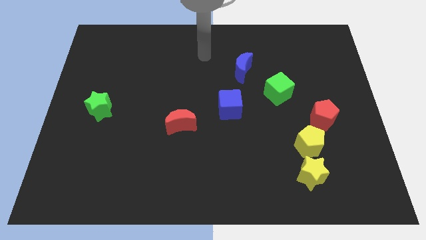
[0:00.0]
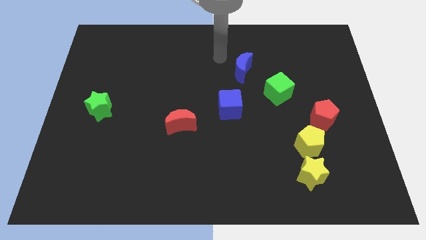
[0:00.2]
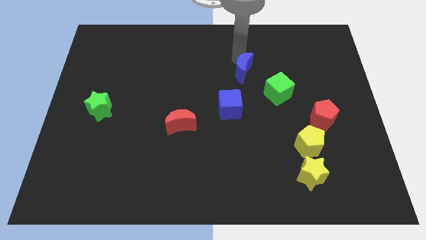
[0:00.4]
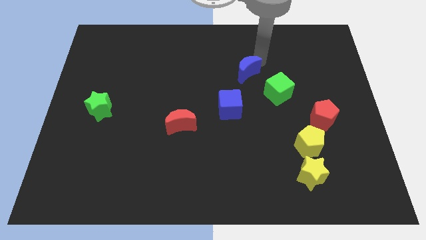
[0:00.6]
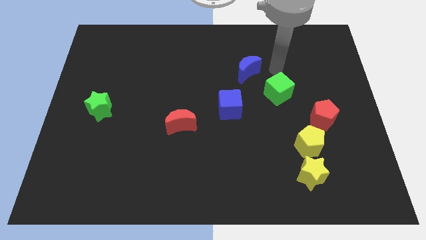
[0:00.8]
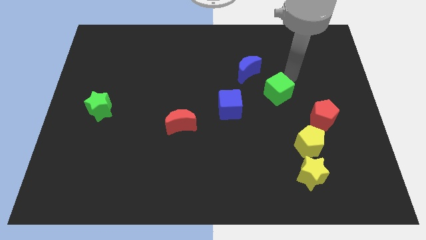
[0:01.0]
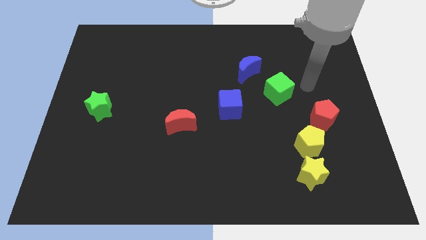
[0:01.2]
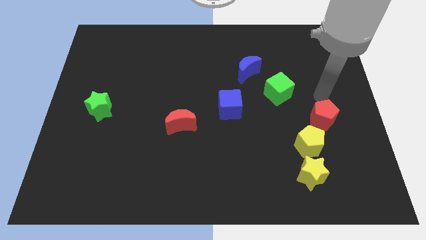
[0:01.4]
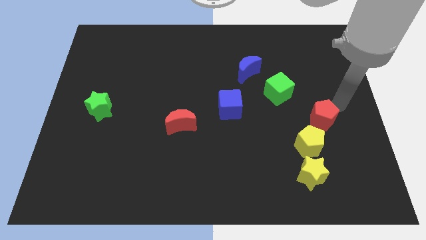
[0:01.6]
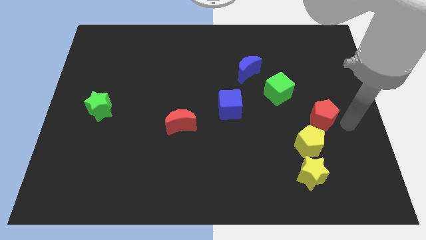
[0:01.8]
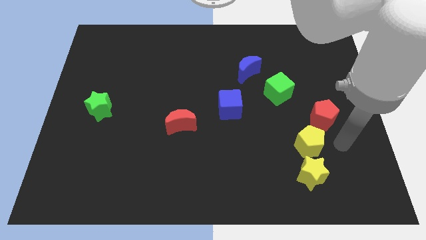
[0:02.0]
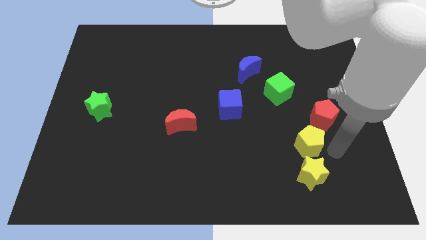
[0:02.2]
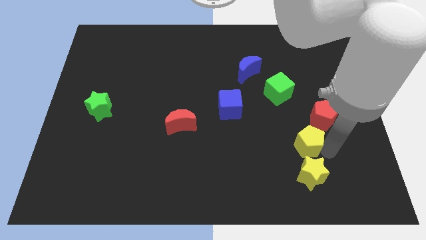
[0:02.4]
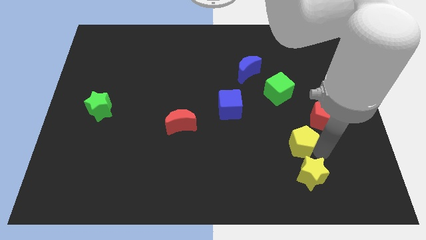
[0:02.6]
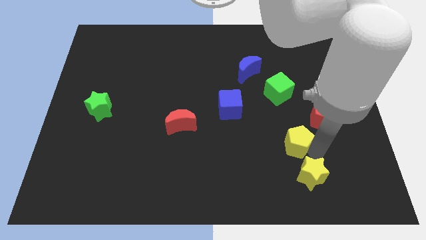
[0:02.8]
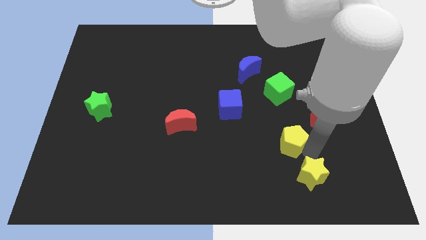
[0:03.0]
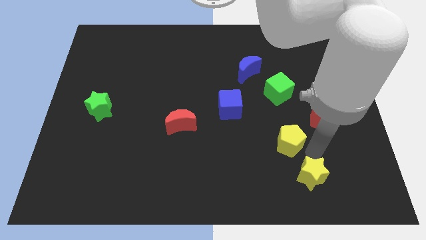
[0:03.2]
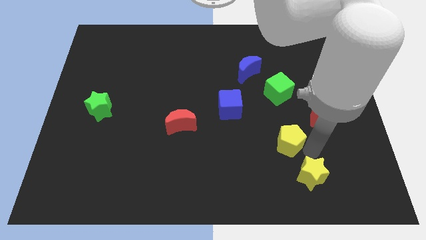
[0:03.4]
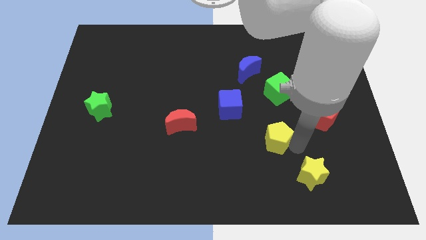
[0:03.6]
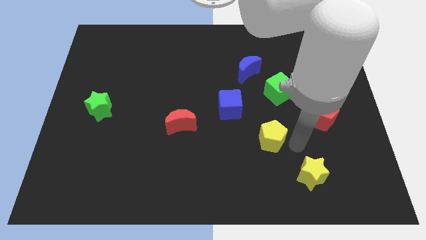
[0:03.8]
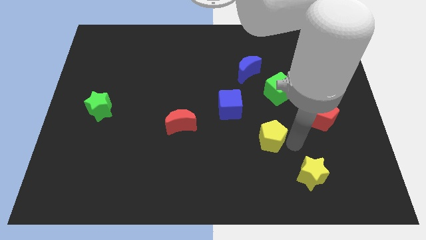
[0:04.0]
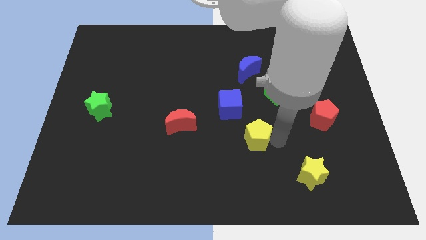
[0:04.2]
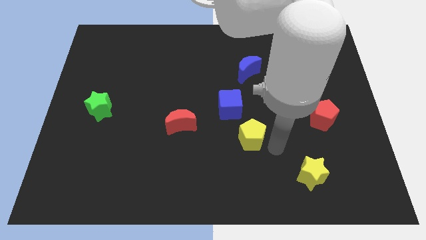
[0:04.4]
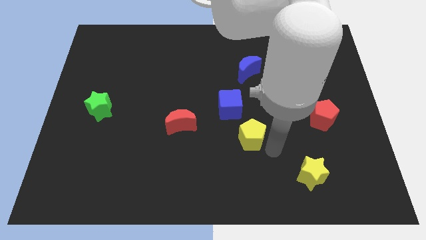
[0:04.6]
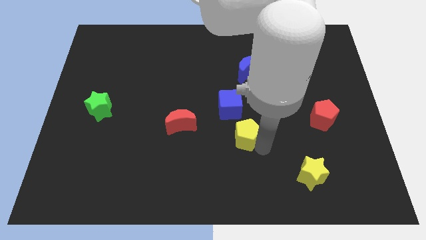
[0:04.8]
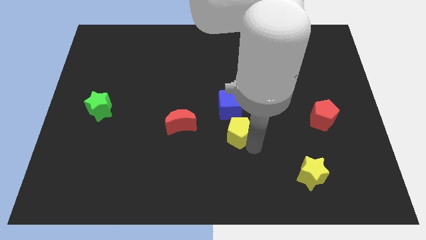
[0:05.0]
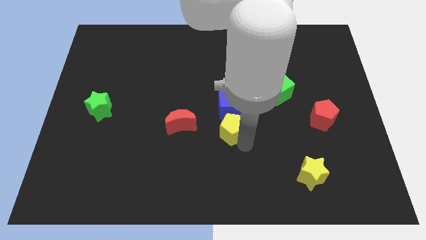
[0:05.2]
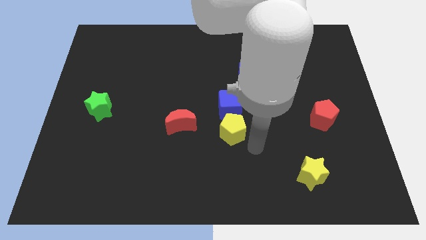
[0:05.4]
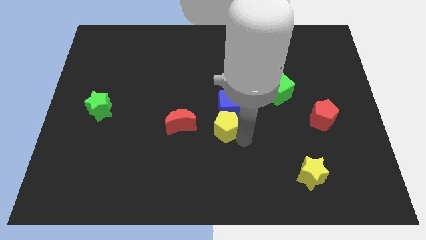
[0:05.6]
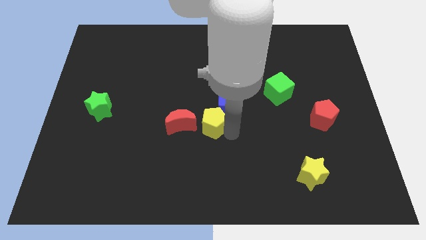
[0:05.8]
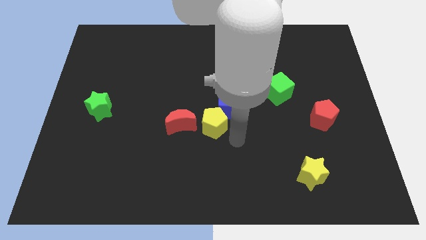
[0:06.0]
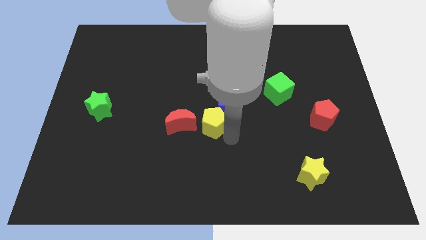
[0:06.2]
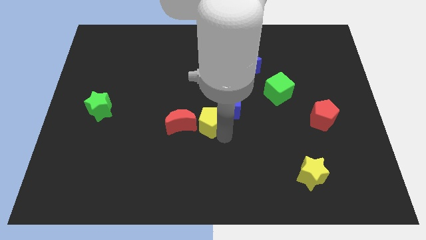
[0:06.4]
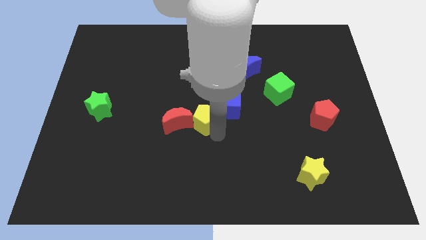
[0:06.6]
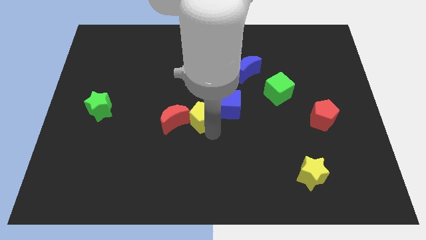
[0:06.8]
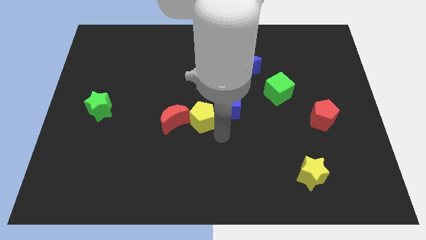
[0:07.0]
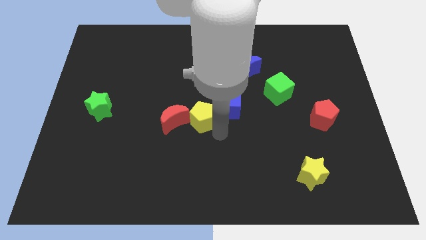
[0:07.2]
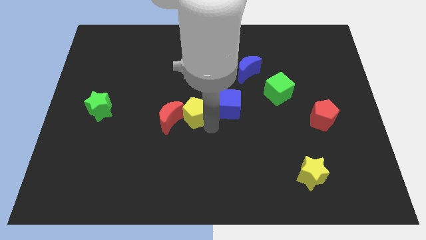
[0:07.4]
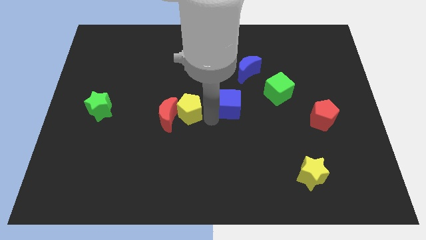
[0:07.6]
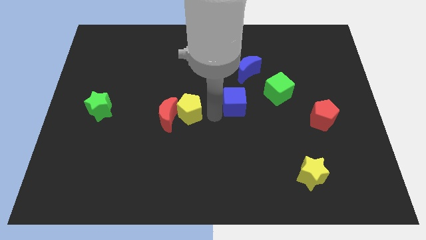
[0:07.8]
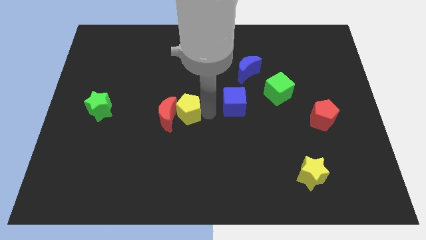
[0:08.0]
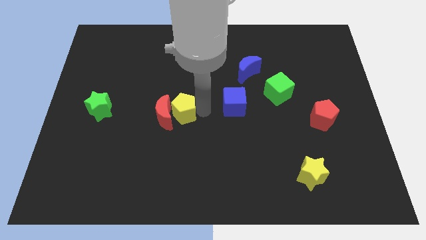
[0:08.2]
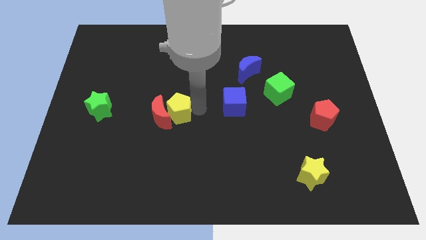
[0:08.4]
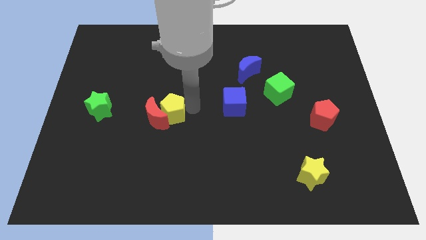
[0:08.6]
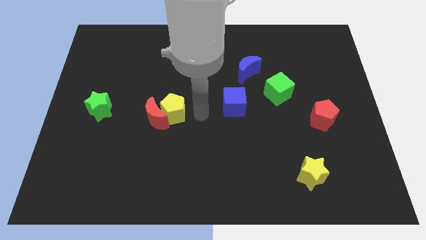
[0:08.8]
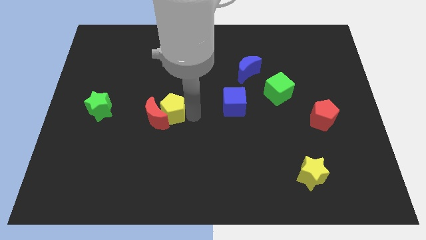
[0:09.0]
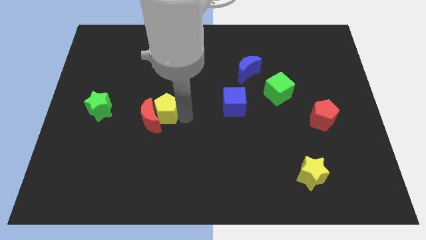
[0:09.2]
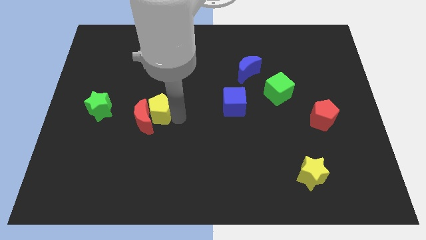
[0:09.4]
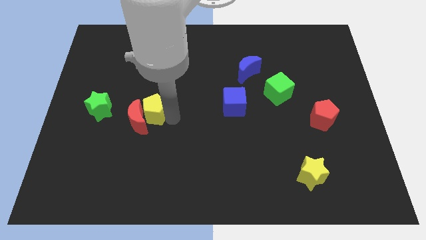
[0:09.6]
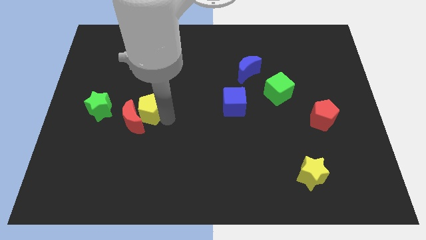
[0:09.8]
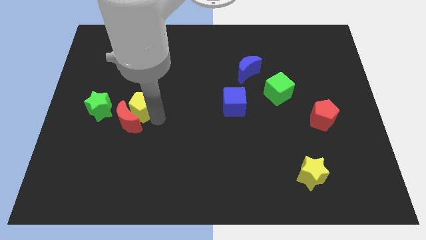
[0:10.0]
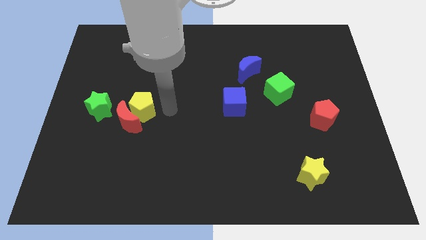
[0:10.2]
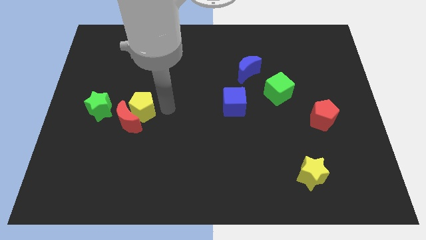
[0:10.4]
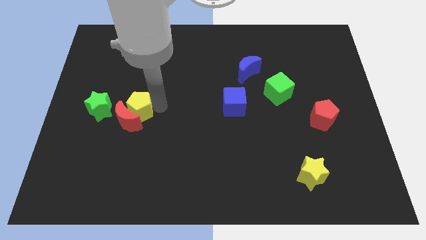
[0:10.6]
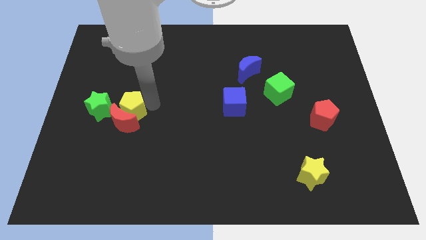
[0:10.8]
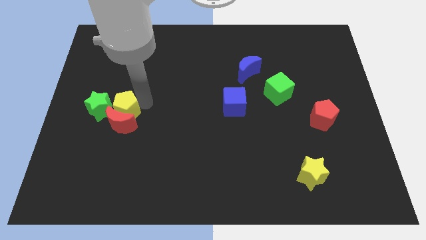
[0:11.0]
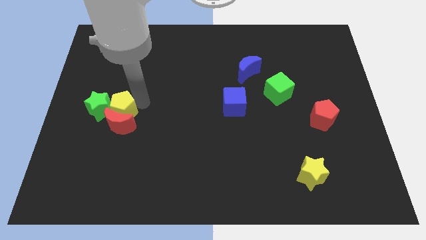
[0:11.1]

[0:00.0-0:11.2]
slide the yellow pentagon close to the green star

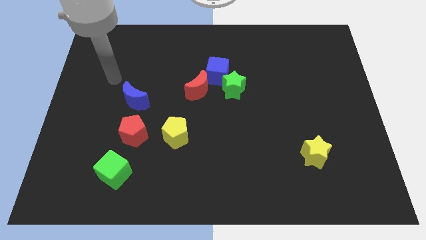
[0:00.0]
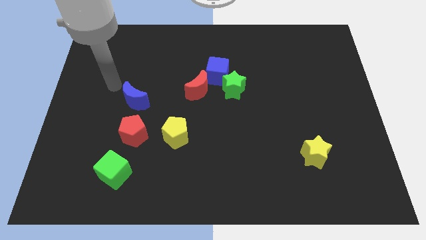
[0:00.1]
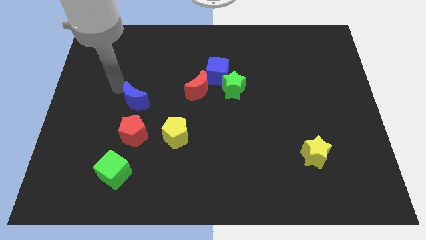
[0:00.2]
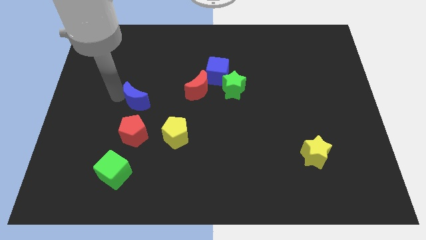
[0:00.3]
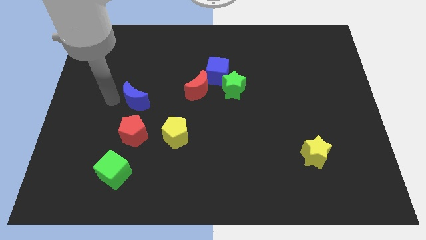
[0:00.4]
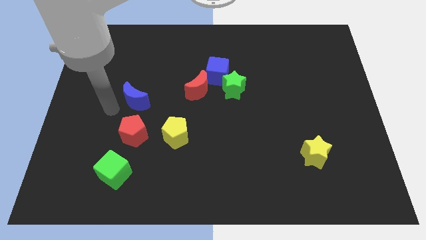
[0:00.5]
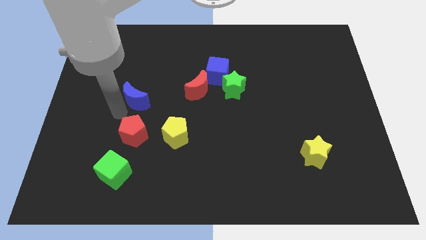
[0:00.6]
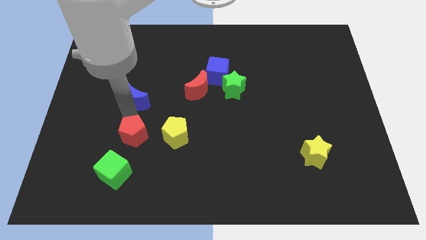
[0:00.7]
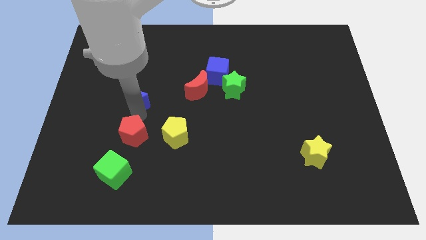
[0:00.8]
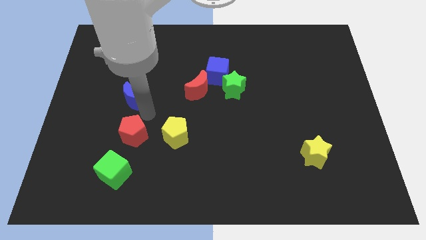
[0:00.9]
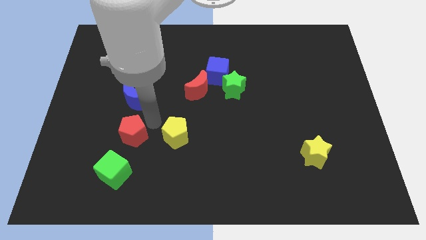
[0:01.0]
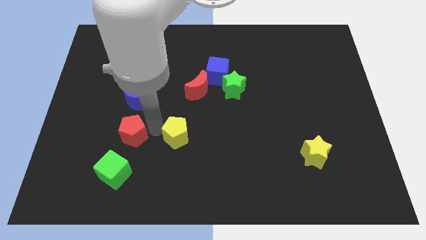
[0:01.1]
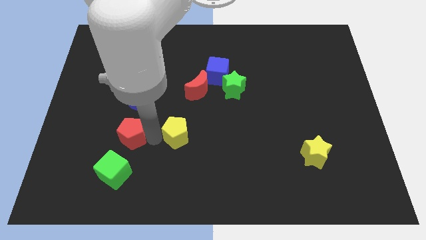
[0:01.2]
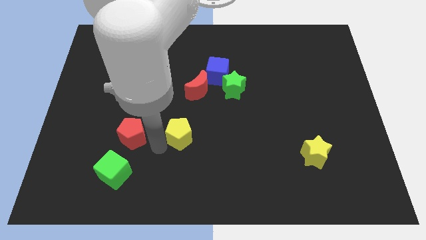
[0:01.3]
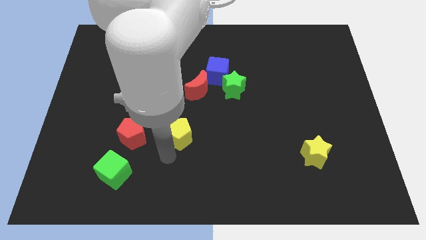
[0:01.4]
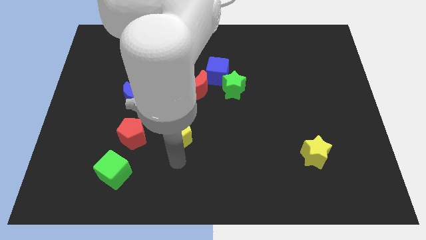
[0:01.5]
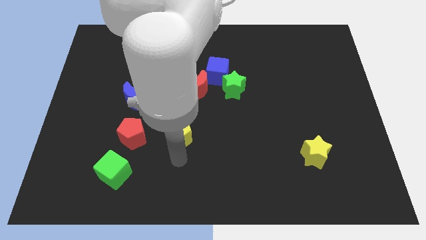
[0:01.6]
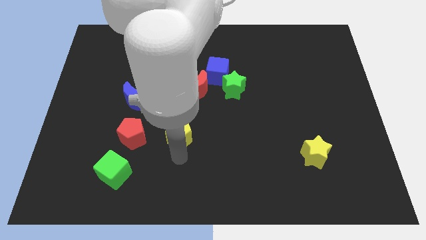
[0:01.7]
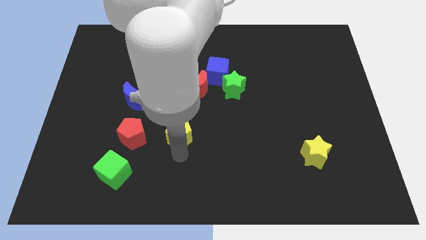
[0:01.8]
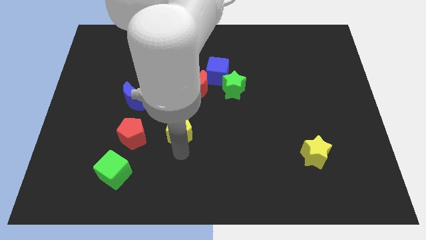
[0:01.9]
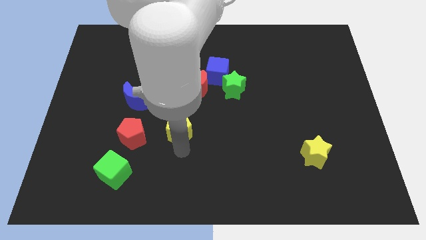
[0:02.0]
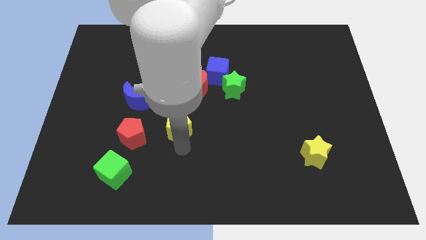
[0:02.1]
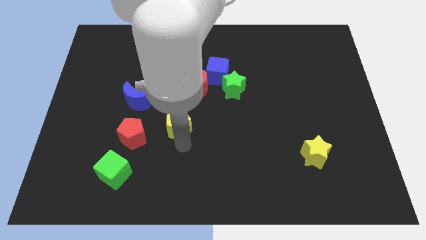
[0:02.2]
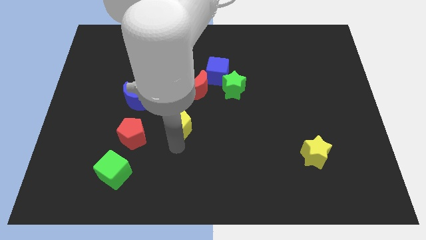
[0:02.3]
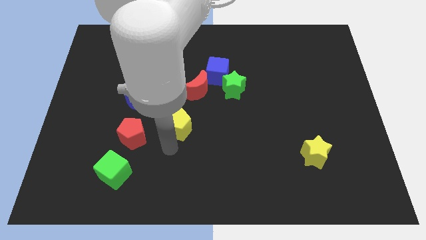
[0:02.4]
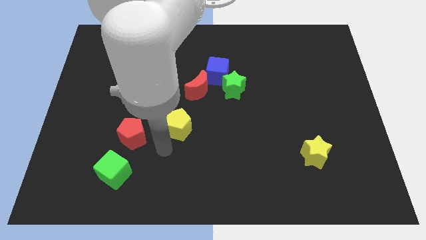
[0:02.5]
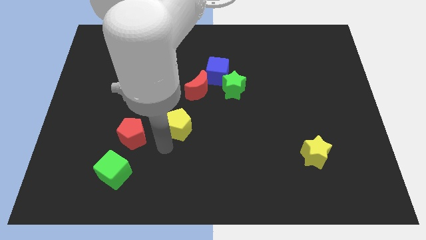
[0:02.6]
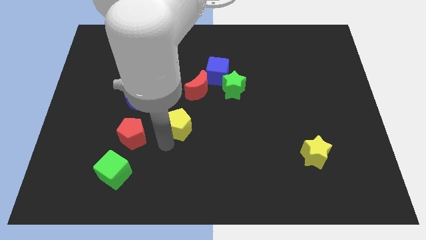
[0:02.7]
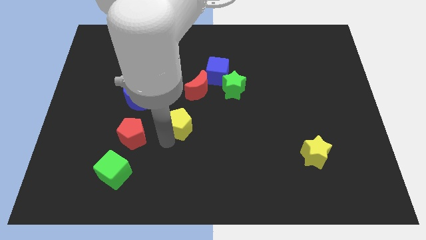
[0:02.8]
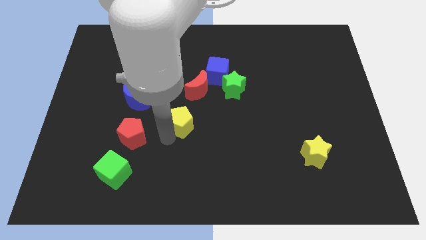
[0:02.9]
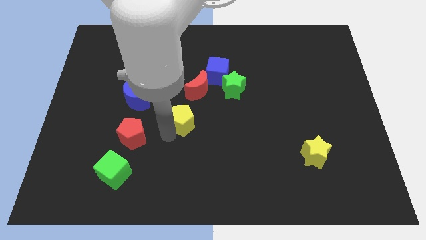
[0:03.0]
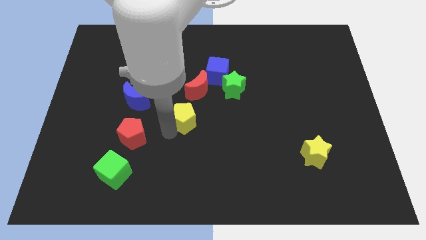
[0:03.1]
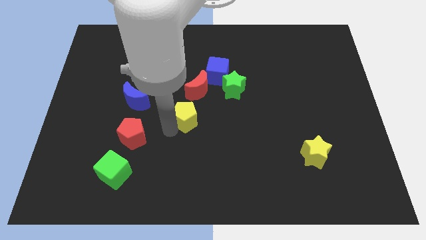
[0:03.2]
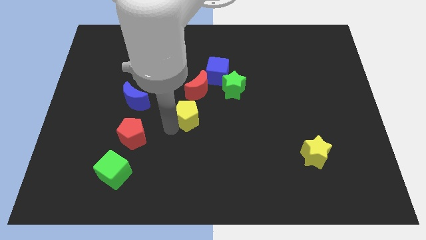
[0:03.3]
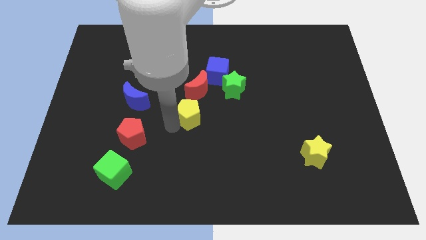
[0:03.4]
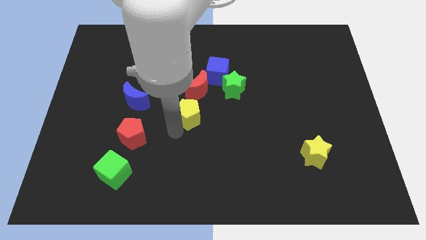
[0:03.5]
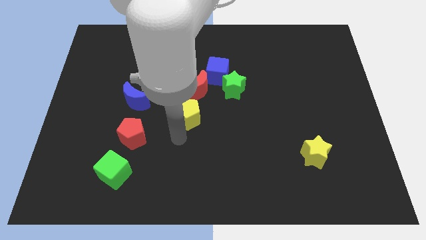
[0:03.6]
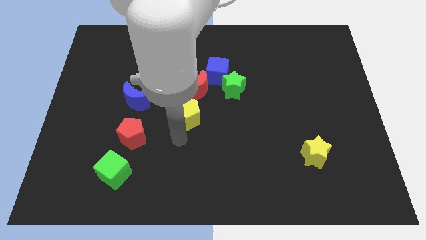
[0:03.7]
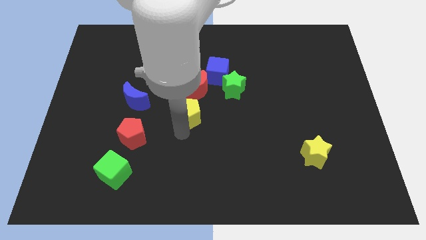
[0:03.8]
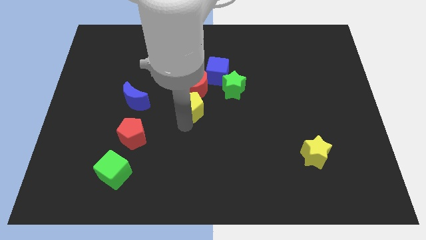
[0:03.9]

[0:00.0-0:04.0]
slide the yellow pentagon to the red moon
